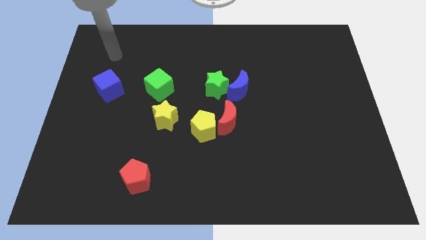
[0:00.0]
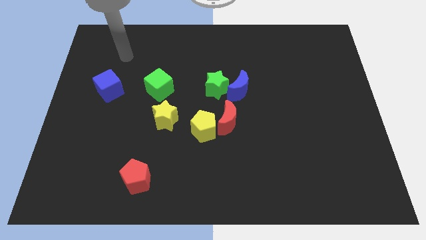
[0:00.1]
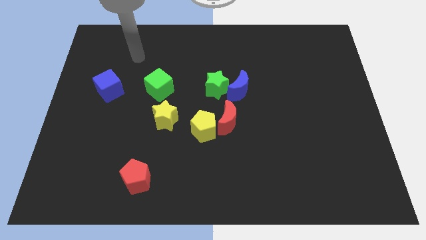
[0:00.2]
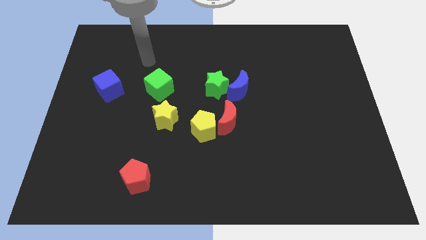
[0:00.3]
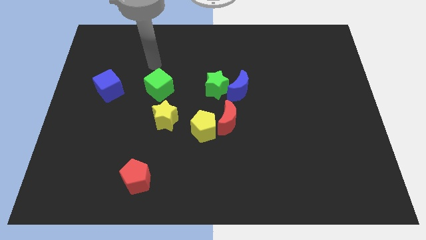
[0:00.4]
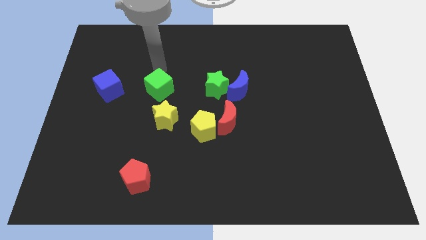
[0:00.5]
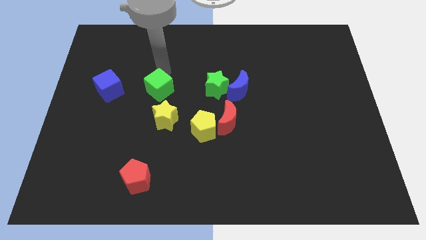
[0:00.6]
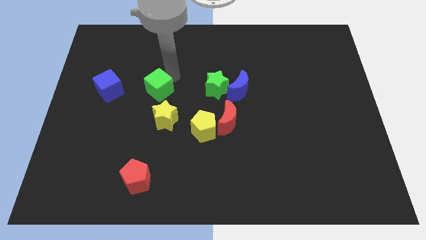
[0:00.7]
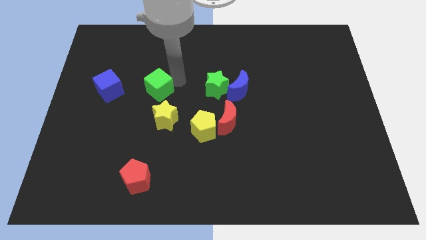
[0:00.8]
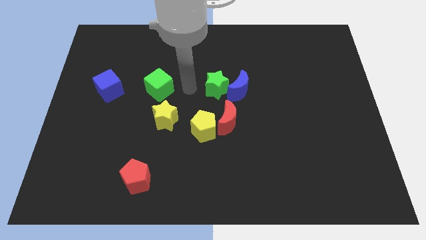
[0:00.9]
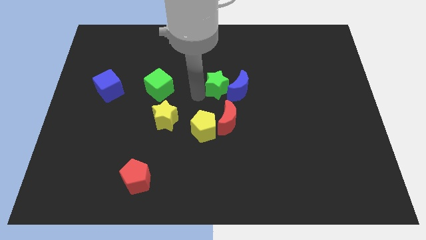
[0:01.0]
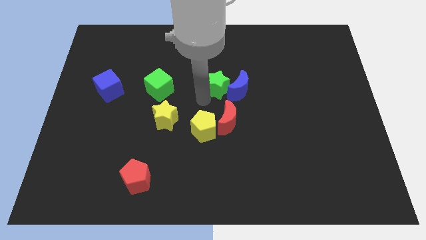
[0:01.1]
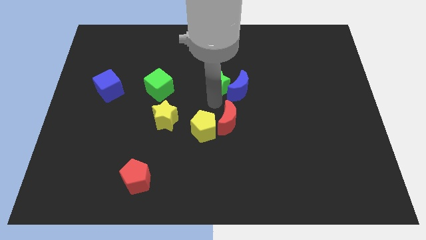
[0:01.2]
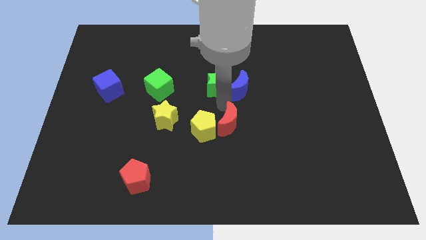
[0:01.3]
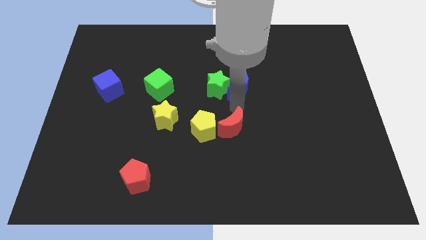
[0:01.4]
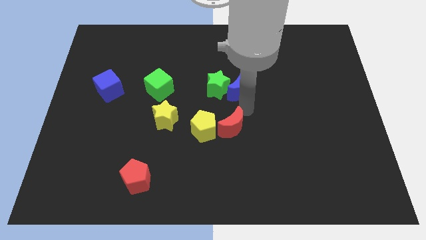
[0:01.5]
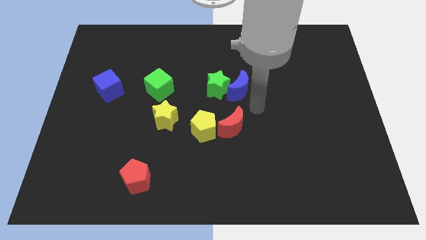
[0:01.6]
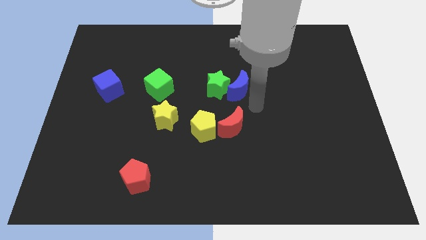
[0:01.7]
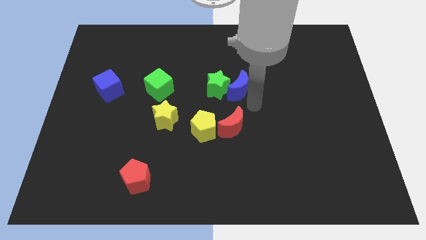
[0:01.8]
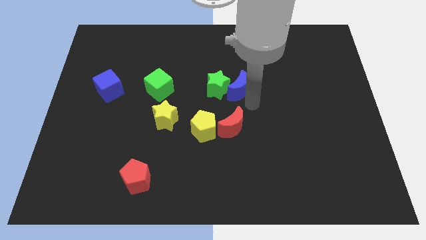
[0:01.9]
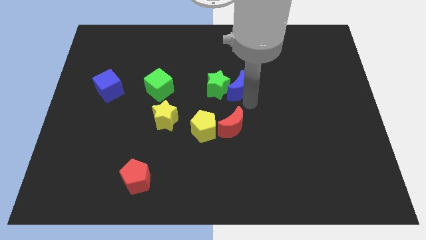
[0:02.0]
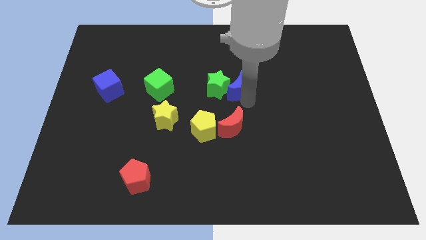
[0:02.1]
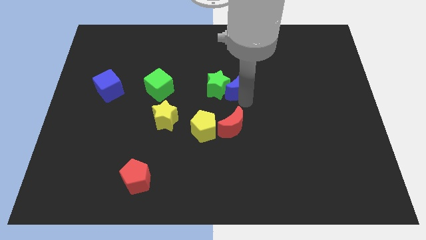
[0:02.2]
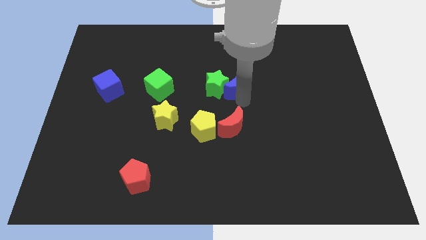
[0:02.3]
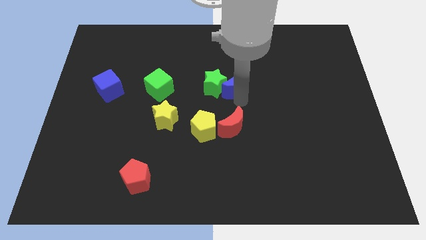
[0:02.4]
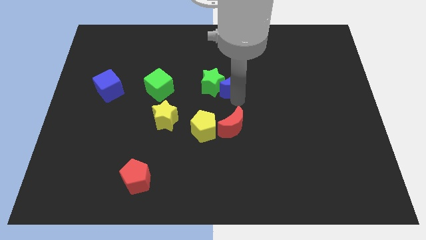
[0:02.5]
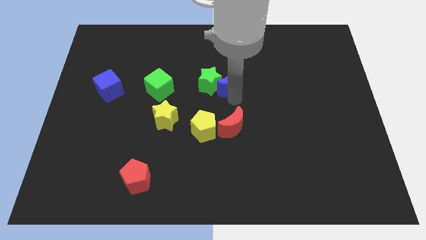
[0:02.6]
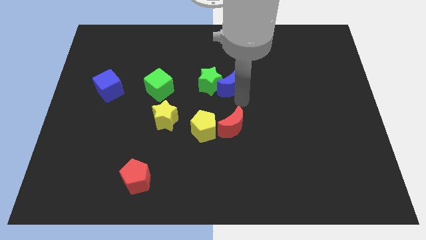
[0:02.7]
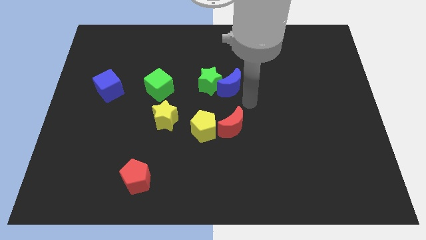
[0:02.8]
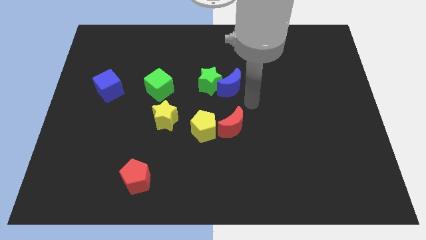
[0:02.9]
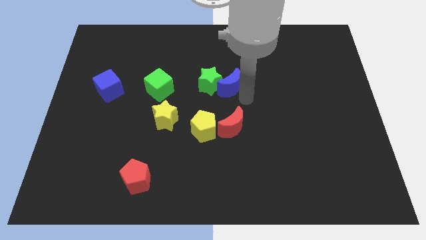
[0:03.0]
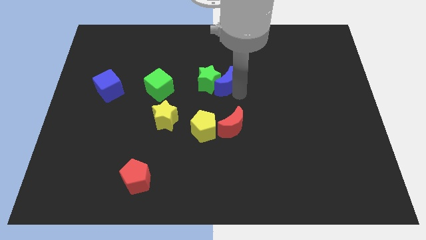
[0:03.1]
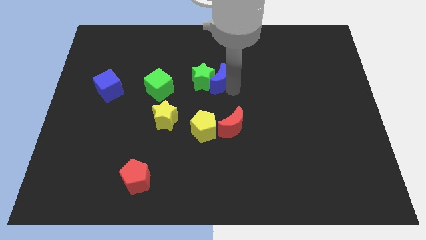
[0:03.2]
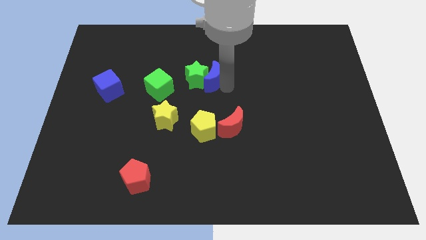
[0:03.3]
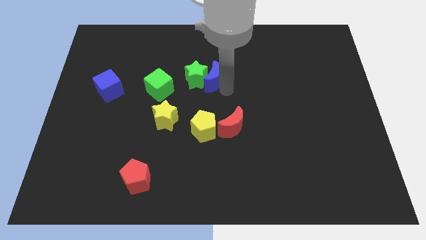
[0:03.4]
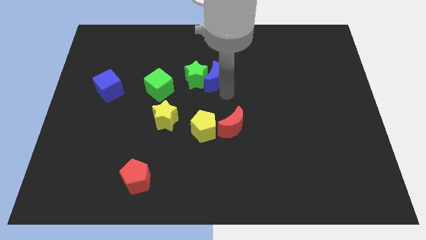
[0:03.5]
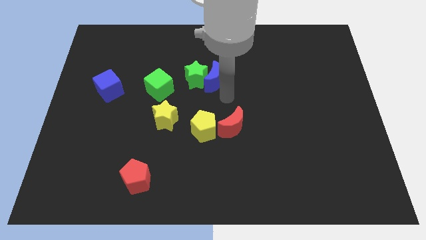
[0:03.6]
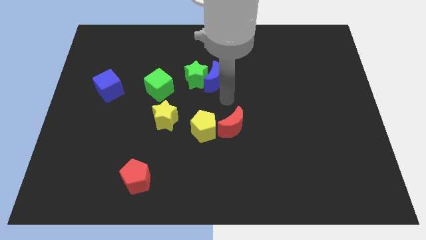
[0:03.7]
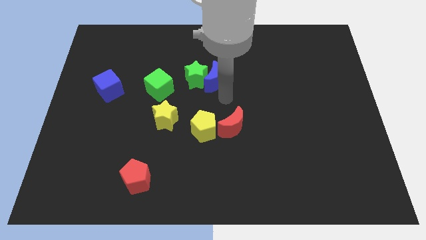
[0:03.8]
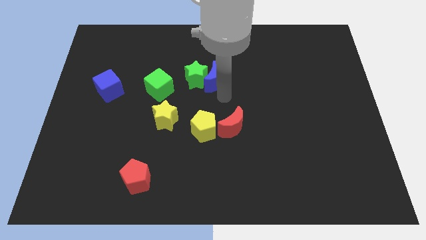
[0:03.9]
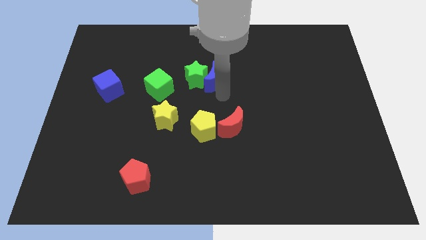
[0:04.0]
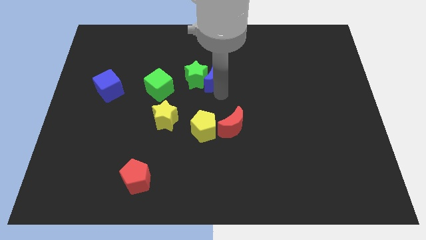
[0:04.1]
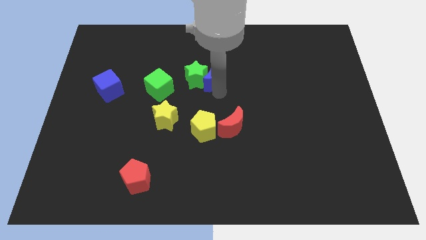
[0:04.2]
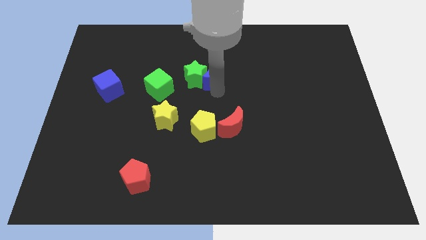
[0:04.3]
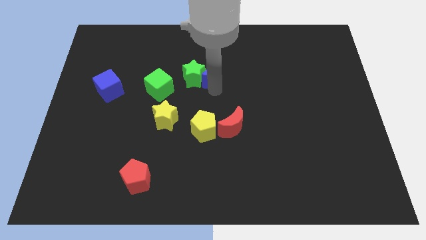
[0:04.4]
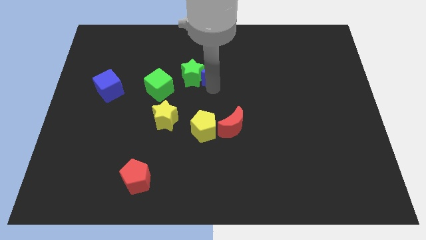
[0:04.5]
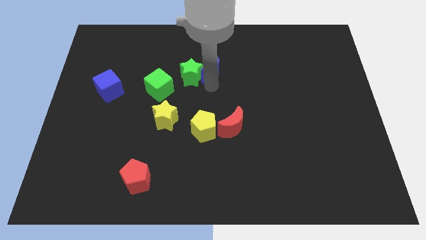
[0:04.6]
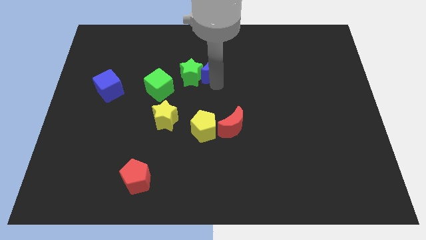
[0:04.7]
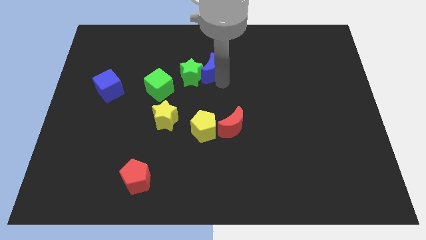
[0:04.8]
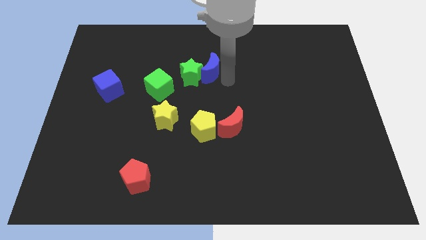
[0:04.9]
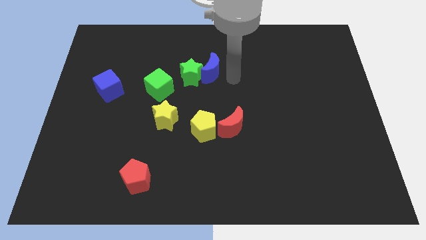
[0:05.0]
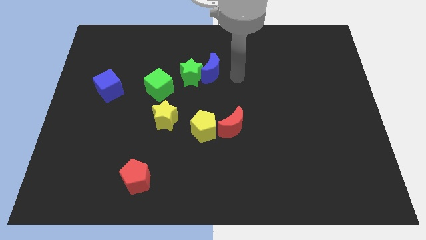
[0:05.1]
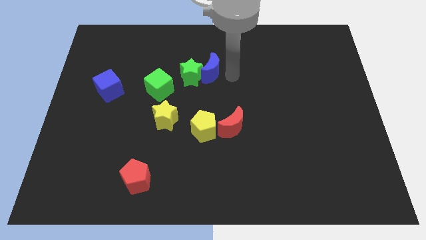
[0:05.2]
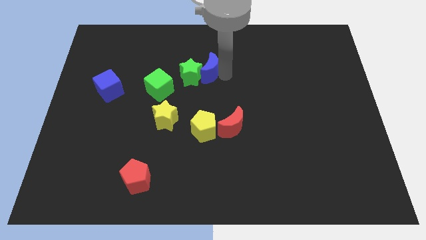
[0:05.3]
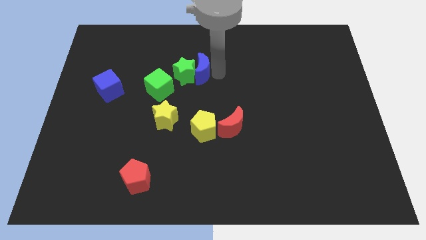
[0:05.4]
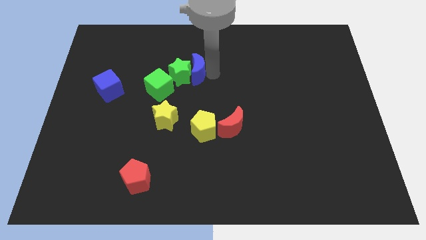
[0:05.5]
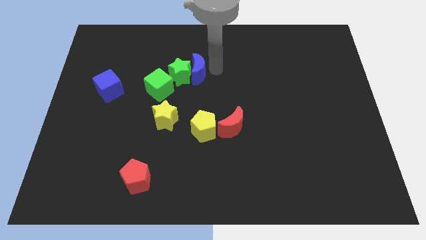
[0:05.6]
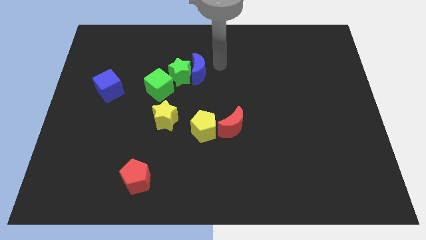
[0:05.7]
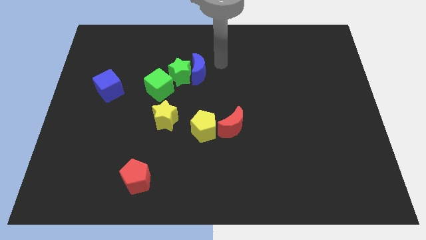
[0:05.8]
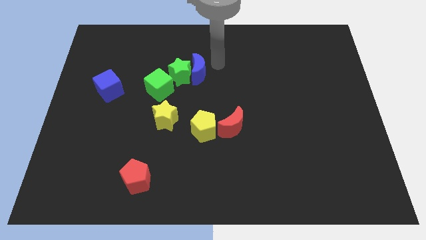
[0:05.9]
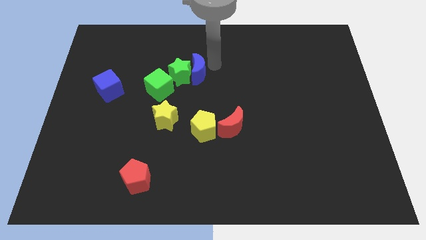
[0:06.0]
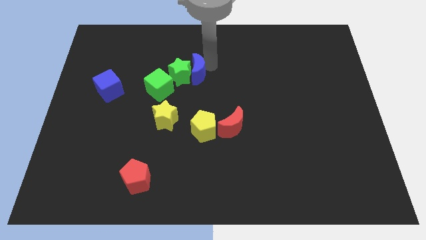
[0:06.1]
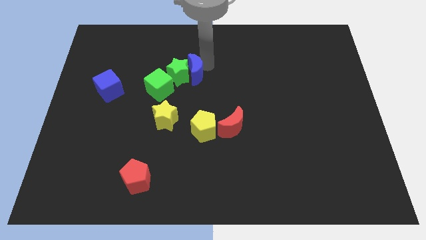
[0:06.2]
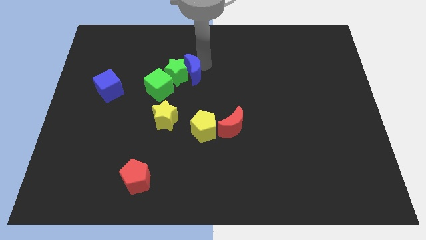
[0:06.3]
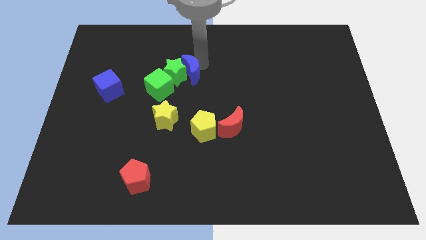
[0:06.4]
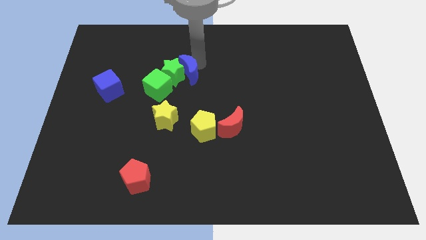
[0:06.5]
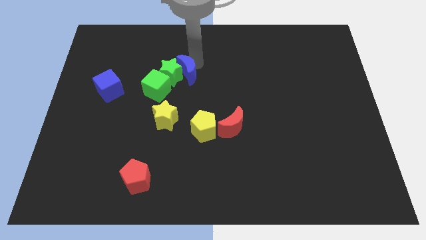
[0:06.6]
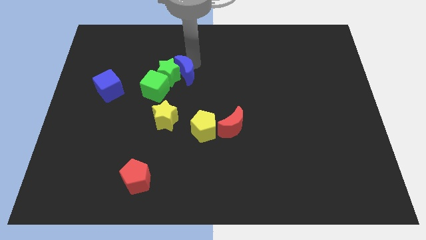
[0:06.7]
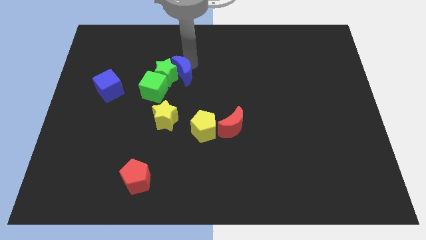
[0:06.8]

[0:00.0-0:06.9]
push the blue moon to the top of the yellow star

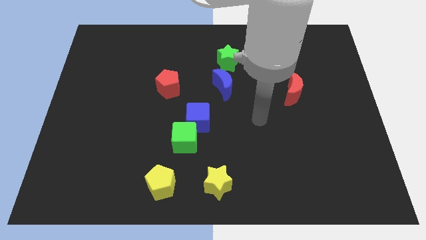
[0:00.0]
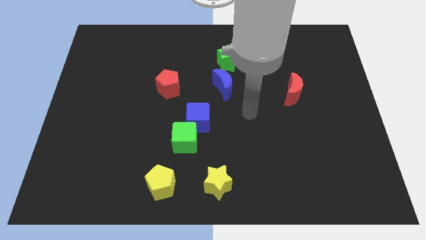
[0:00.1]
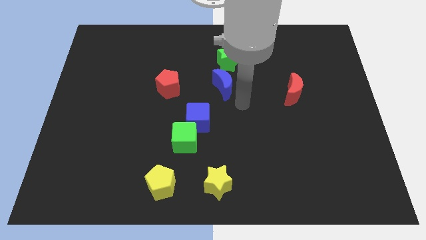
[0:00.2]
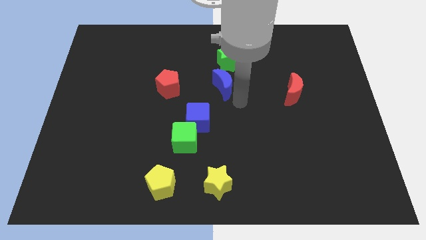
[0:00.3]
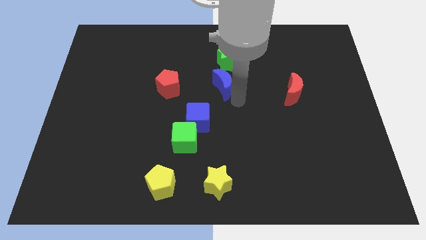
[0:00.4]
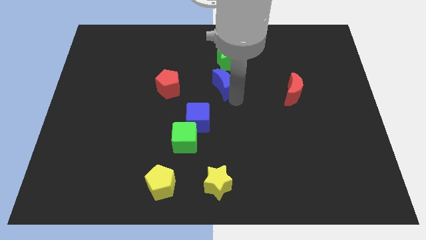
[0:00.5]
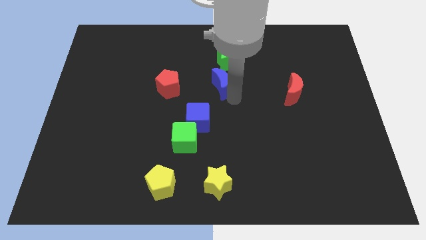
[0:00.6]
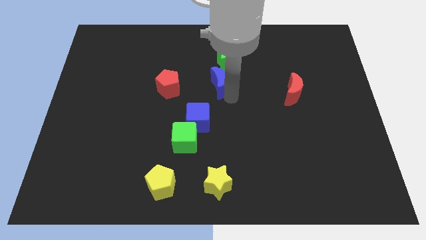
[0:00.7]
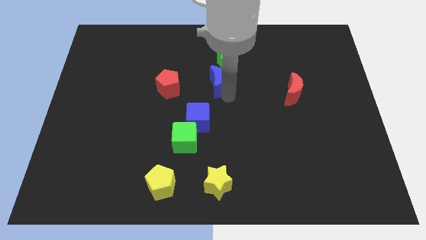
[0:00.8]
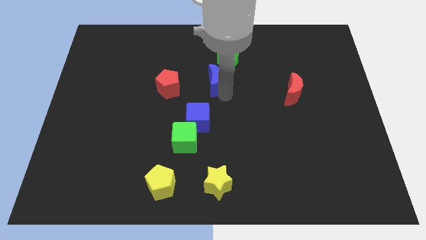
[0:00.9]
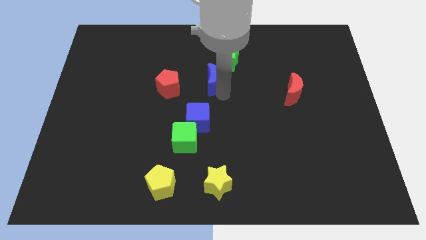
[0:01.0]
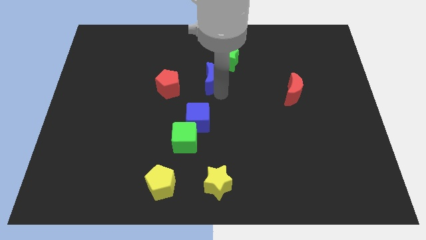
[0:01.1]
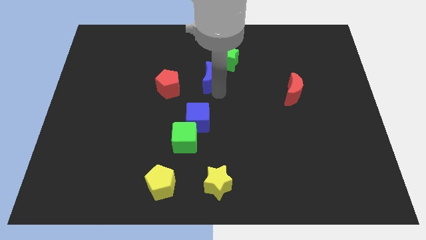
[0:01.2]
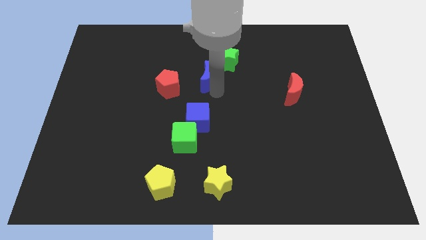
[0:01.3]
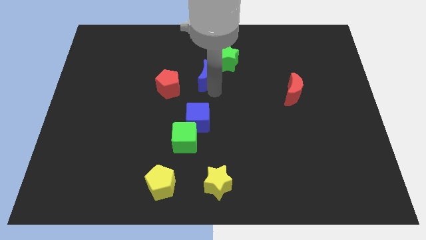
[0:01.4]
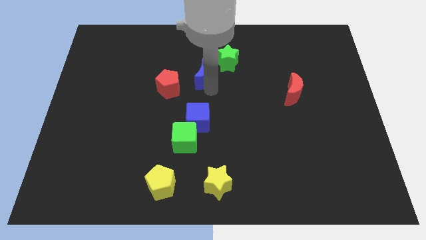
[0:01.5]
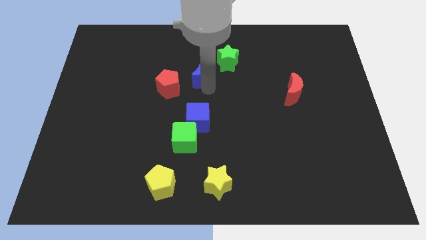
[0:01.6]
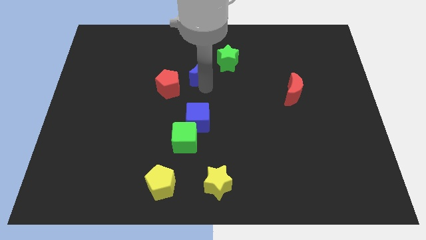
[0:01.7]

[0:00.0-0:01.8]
put the blue moon just left of the green star
